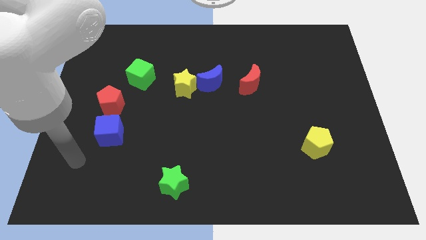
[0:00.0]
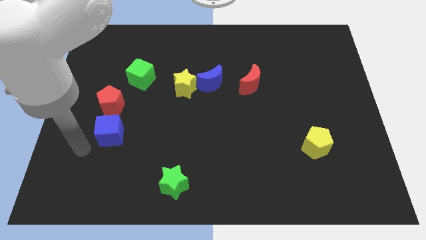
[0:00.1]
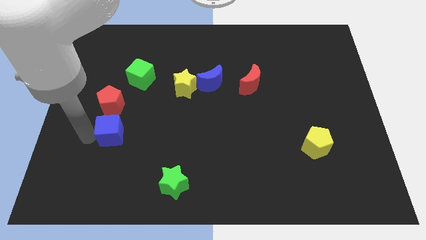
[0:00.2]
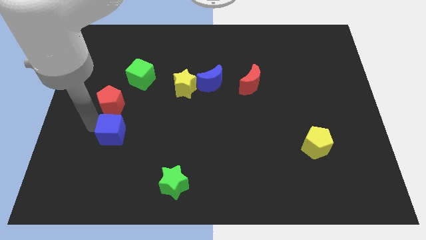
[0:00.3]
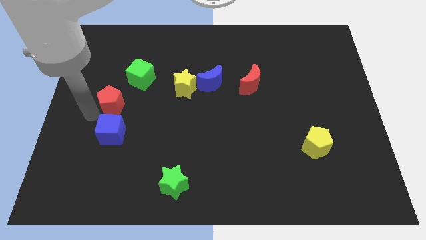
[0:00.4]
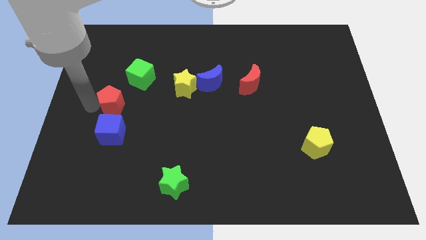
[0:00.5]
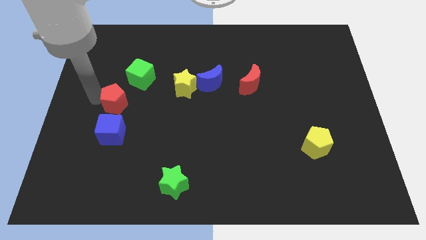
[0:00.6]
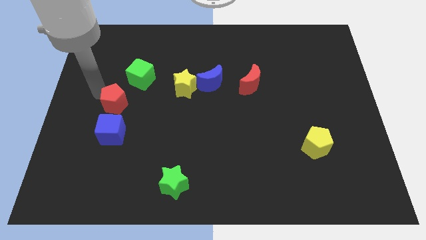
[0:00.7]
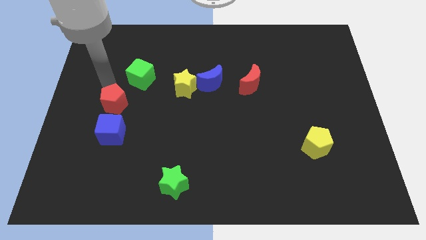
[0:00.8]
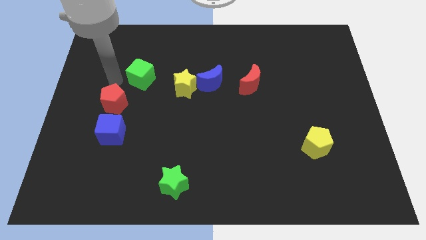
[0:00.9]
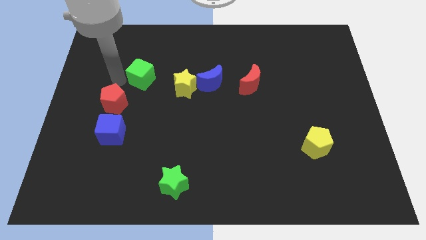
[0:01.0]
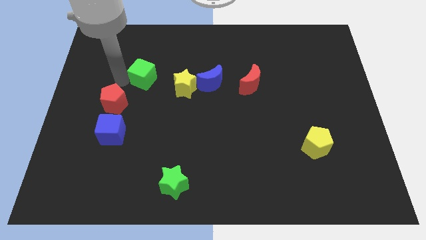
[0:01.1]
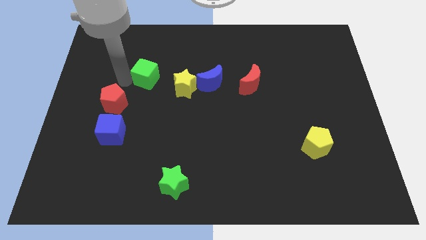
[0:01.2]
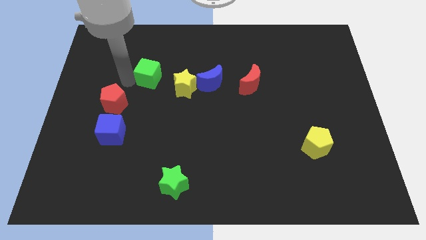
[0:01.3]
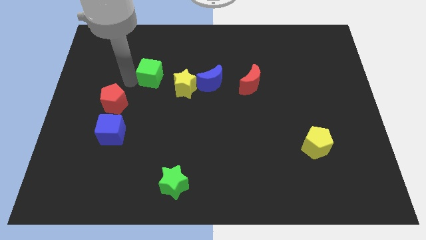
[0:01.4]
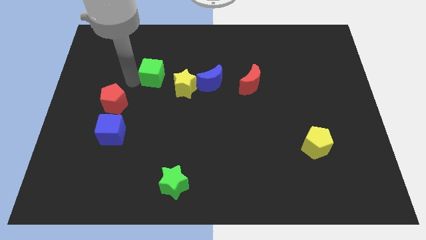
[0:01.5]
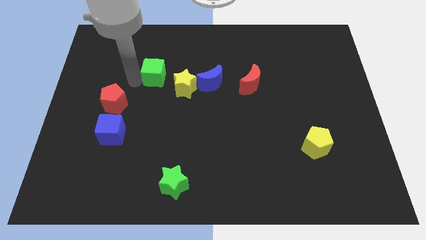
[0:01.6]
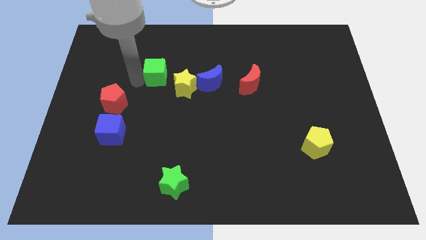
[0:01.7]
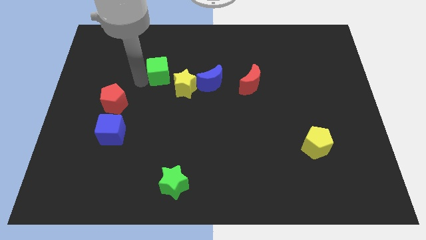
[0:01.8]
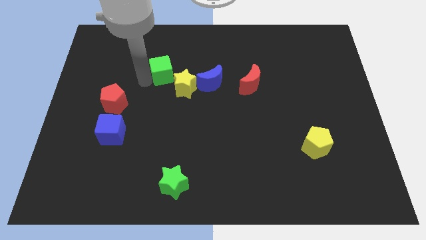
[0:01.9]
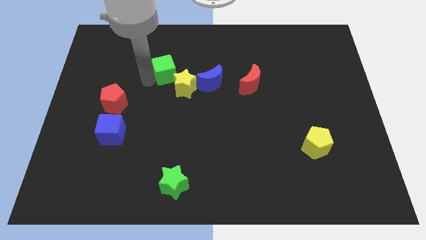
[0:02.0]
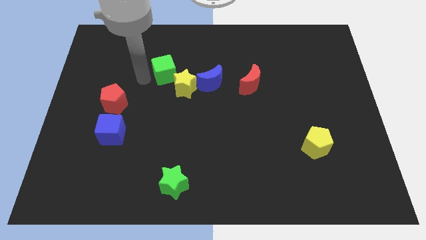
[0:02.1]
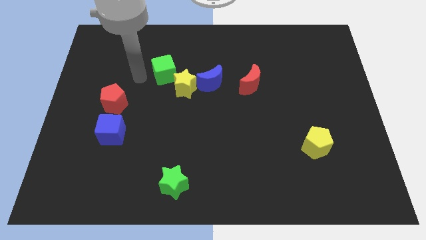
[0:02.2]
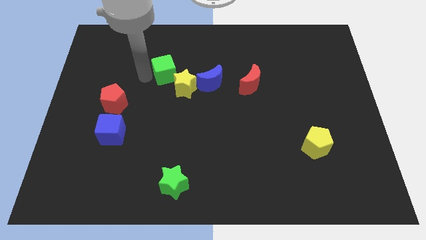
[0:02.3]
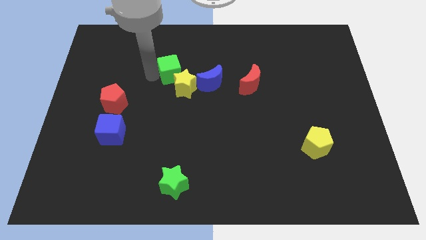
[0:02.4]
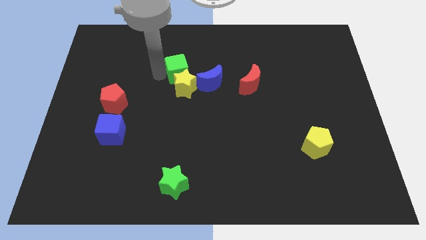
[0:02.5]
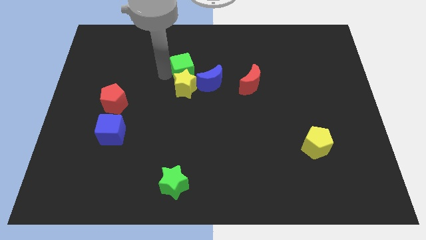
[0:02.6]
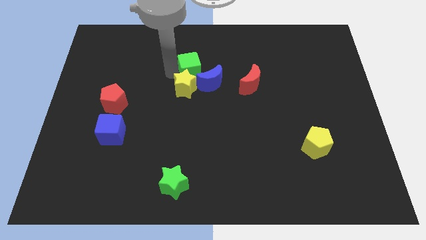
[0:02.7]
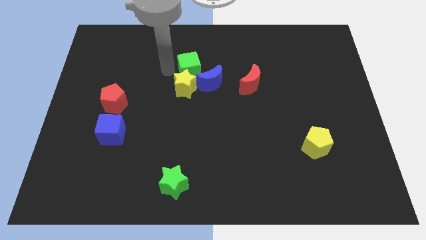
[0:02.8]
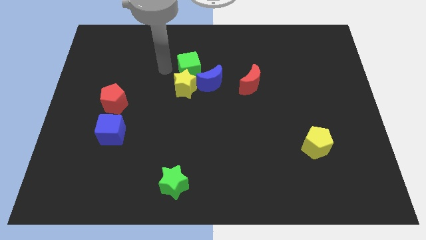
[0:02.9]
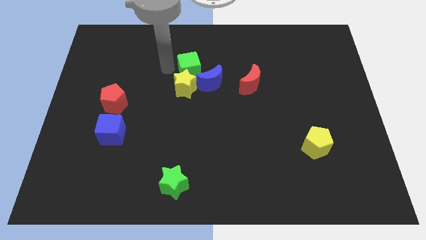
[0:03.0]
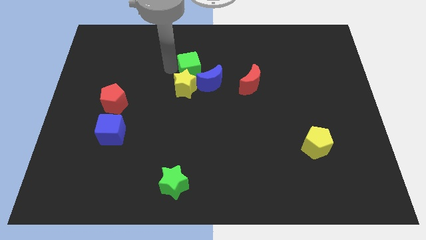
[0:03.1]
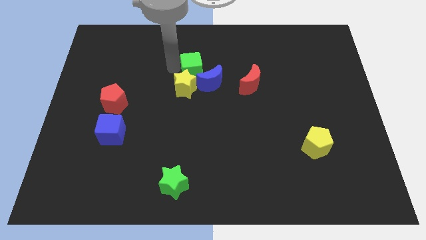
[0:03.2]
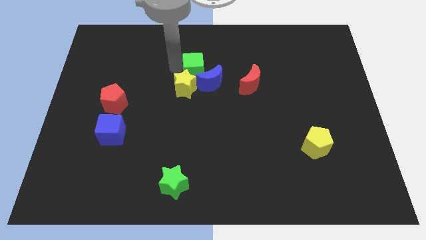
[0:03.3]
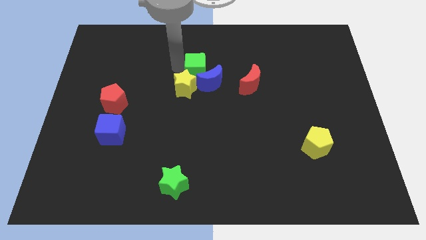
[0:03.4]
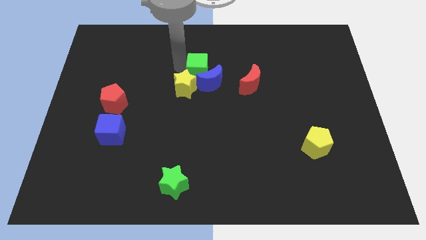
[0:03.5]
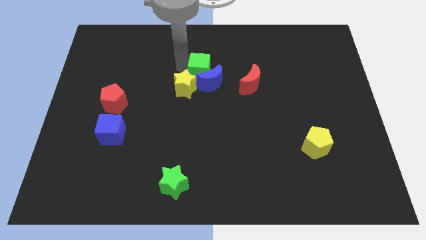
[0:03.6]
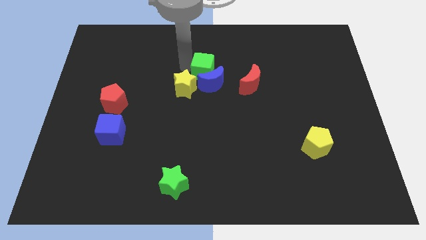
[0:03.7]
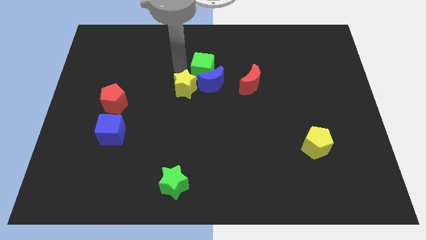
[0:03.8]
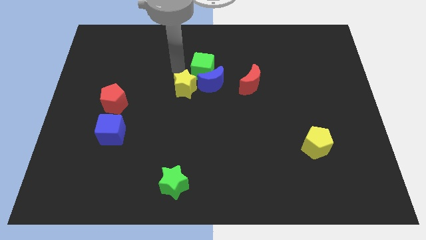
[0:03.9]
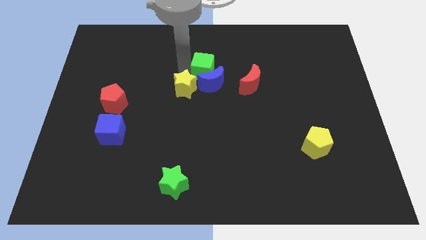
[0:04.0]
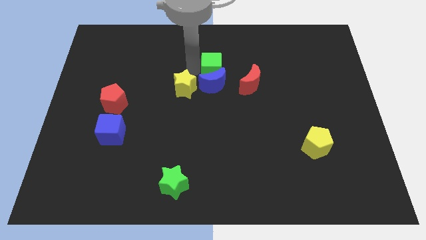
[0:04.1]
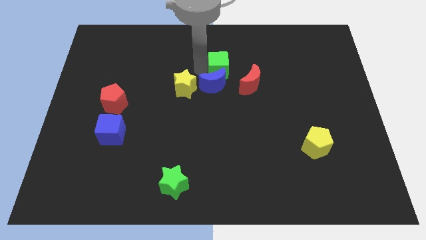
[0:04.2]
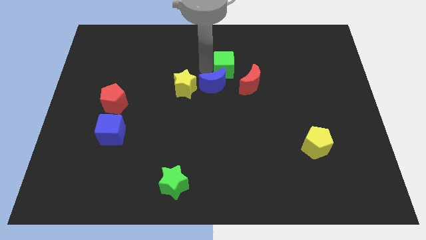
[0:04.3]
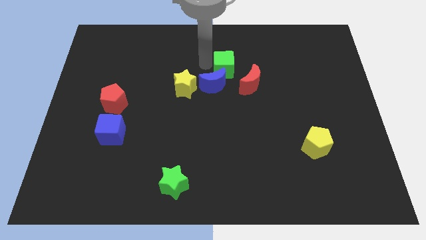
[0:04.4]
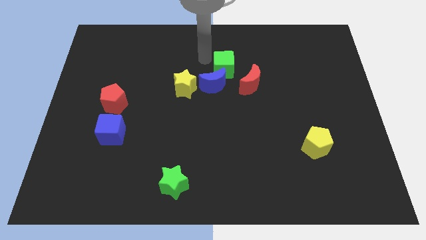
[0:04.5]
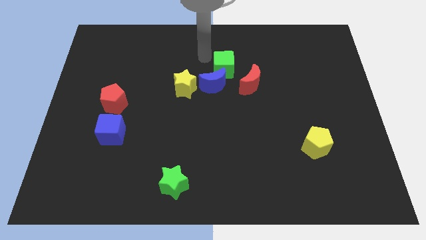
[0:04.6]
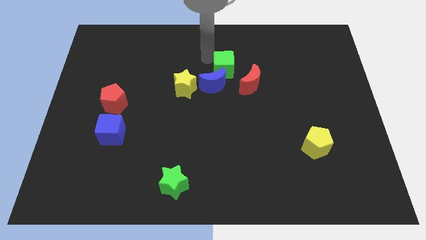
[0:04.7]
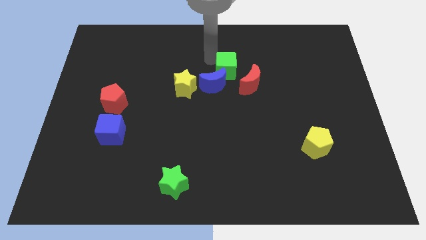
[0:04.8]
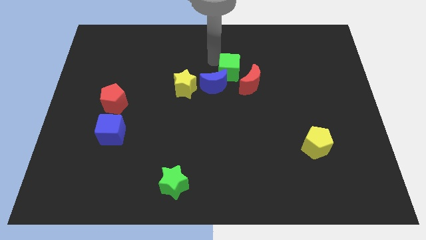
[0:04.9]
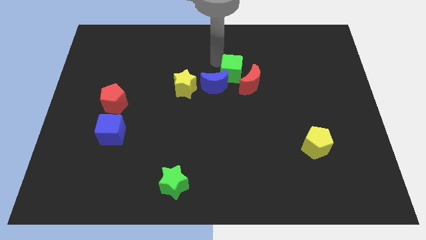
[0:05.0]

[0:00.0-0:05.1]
slide the green cube towards the red moon

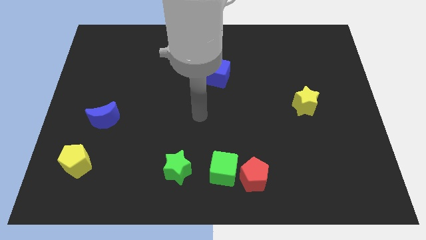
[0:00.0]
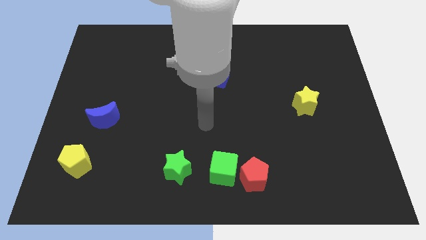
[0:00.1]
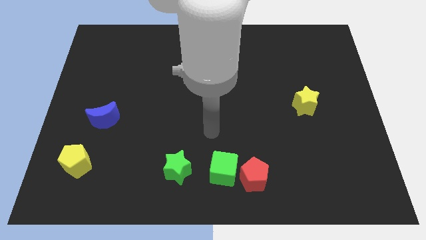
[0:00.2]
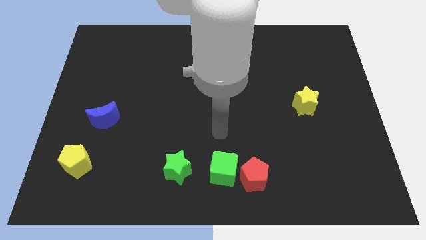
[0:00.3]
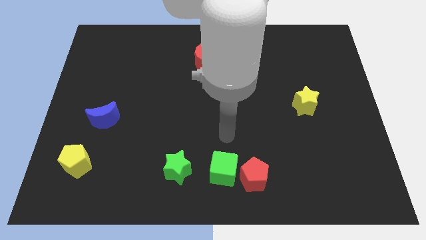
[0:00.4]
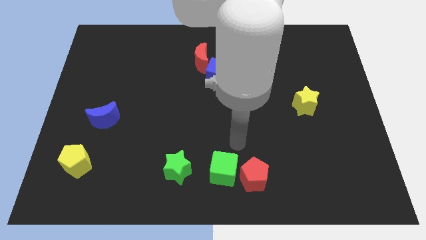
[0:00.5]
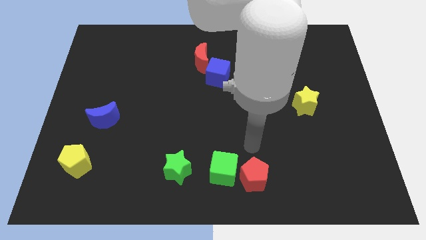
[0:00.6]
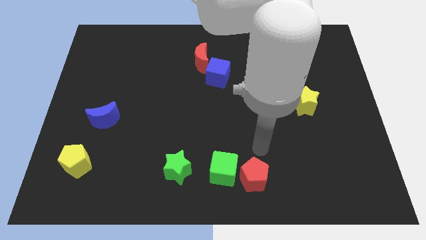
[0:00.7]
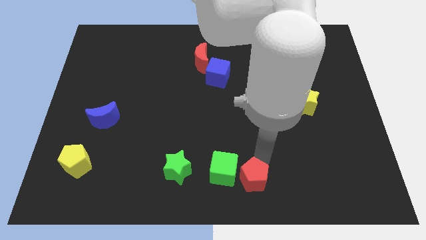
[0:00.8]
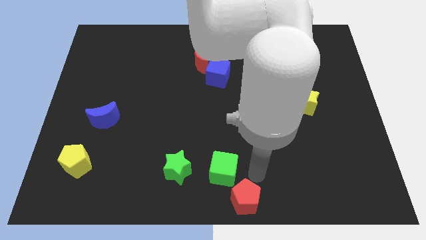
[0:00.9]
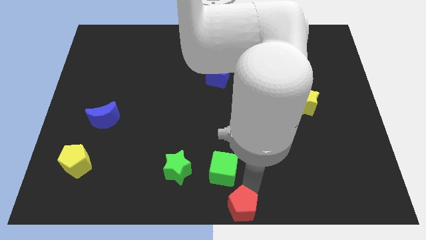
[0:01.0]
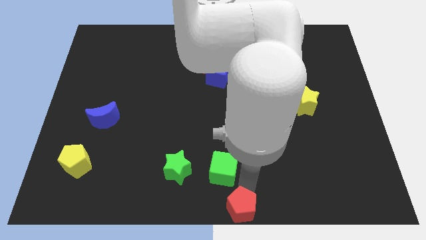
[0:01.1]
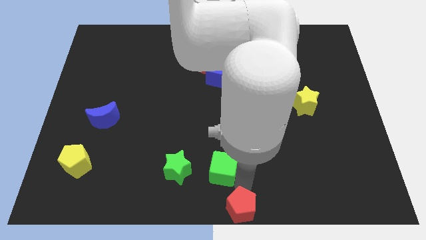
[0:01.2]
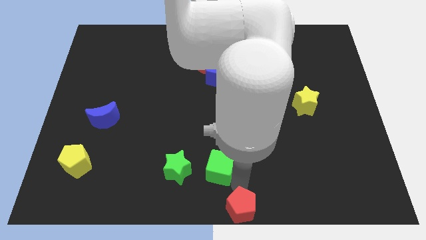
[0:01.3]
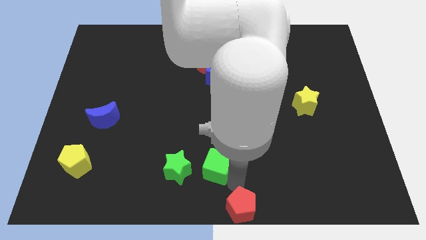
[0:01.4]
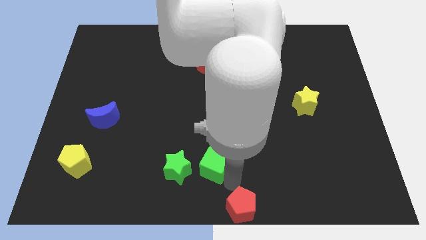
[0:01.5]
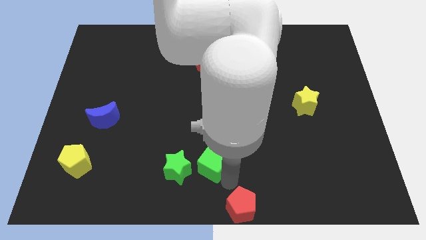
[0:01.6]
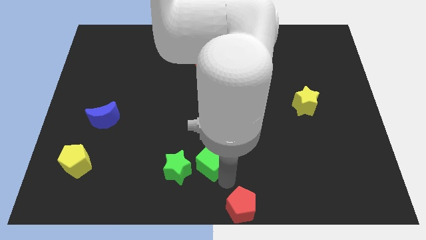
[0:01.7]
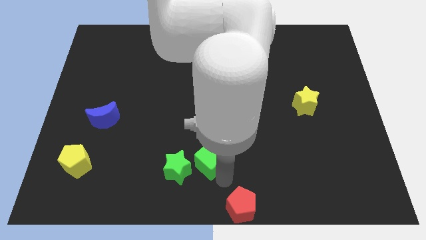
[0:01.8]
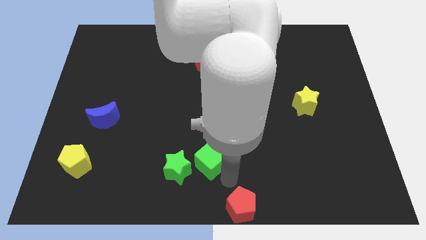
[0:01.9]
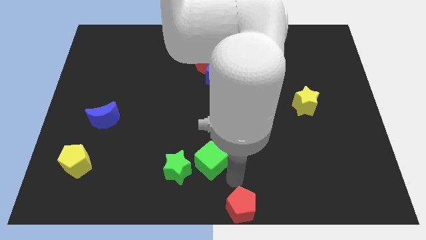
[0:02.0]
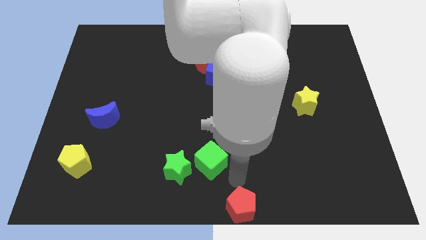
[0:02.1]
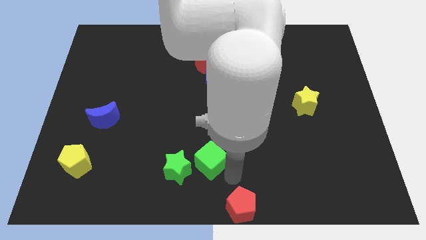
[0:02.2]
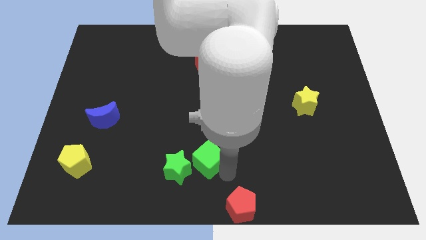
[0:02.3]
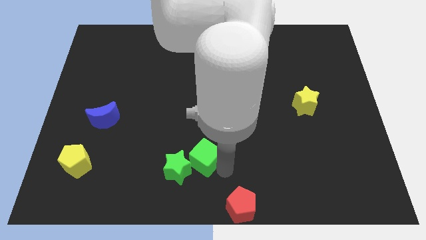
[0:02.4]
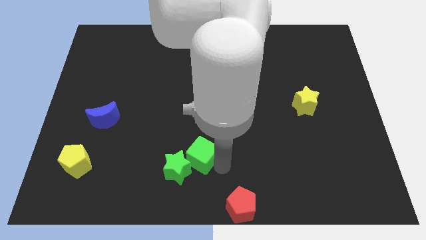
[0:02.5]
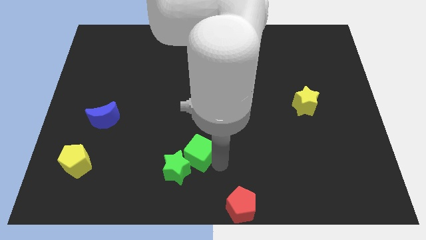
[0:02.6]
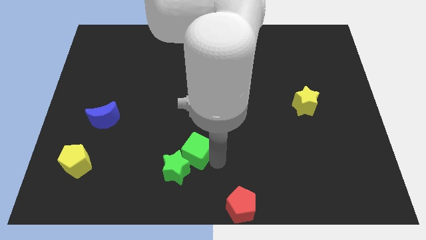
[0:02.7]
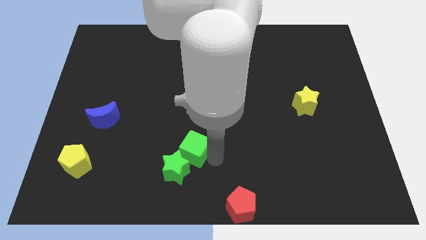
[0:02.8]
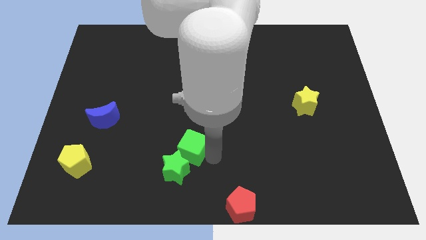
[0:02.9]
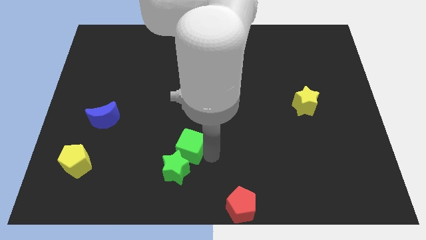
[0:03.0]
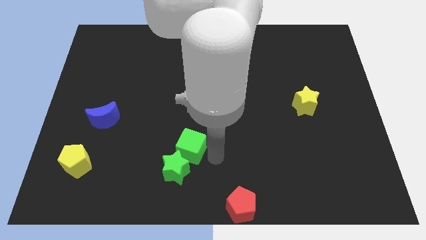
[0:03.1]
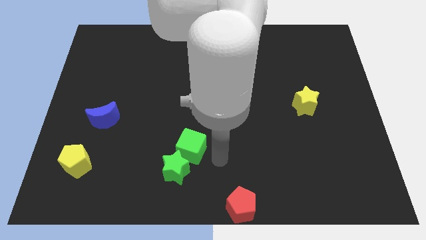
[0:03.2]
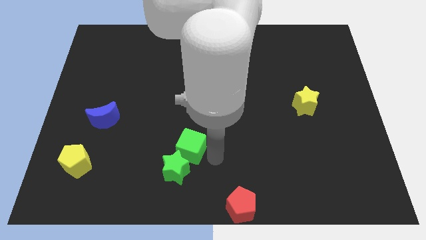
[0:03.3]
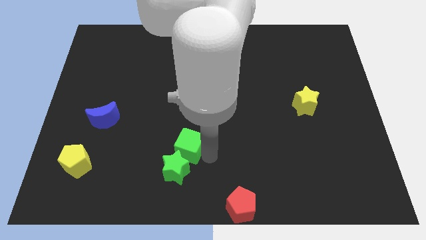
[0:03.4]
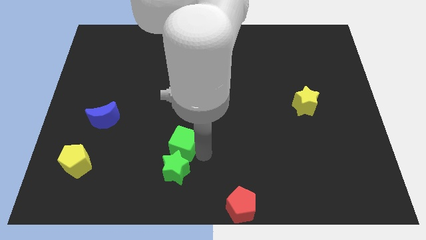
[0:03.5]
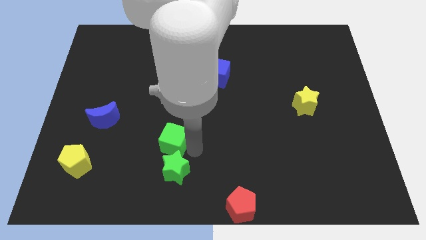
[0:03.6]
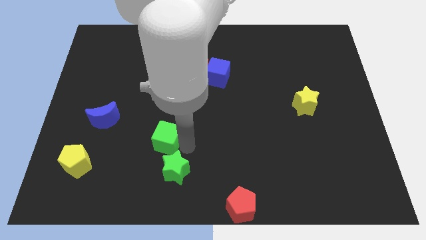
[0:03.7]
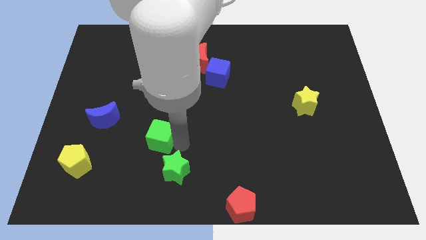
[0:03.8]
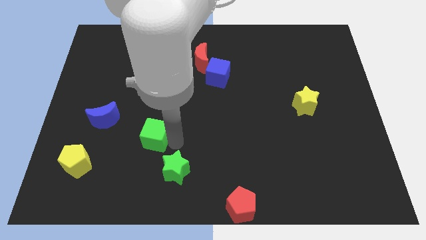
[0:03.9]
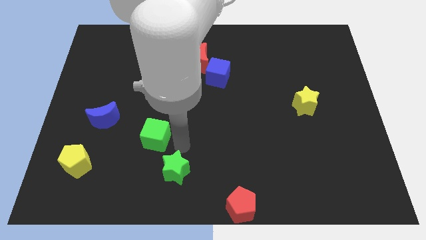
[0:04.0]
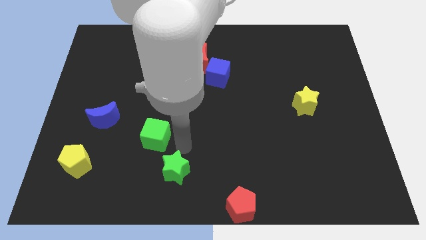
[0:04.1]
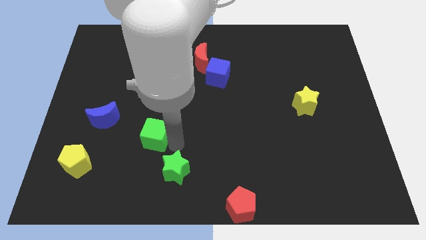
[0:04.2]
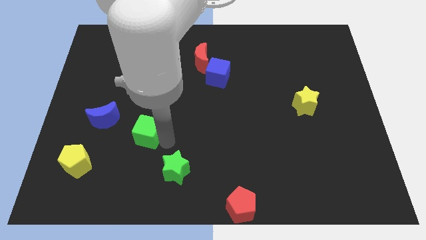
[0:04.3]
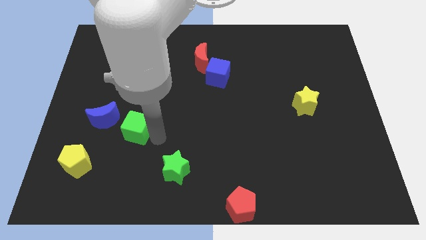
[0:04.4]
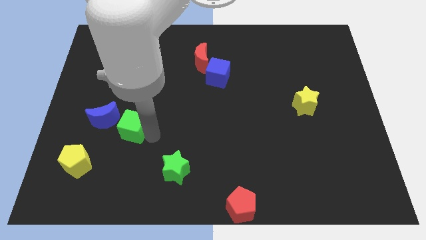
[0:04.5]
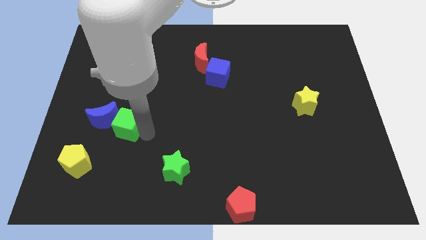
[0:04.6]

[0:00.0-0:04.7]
push the green cube next to the blue moon
